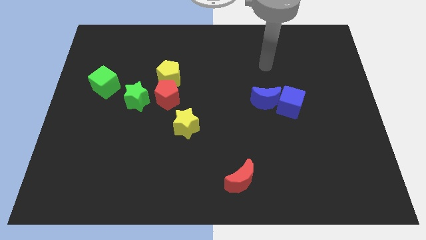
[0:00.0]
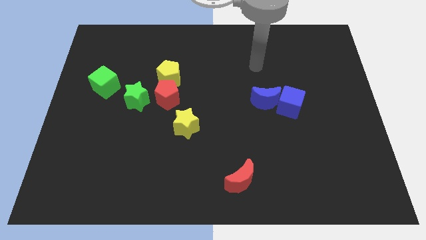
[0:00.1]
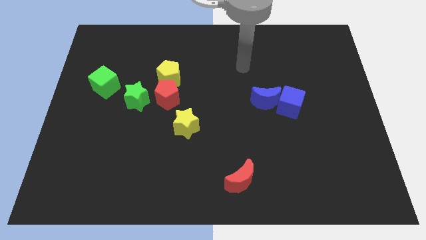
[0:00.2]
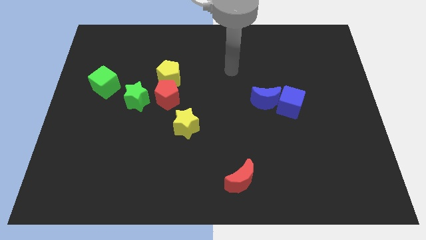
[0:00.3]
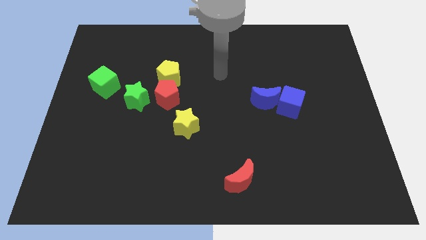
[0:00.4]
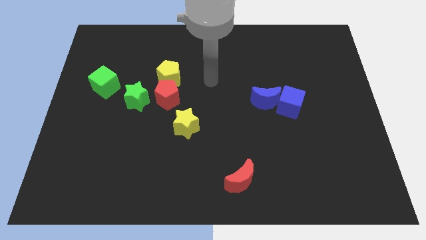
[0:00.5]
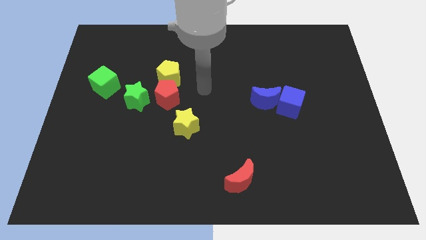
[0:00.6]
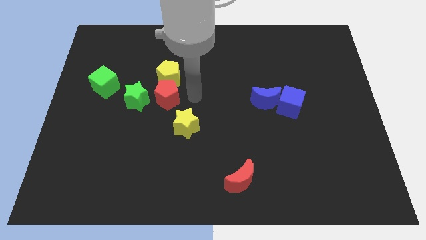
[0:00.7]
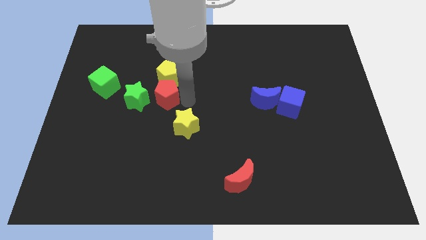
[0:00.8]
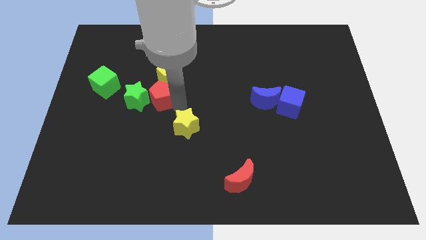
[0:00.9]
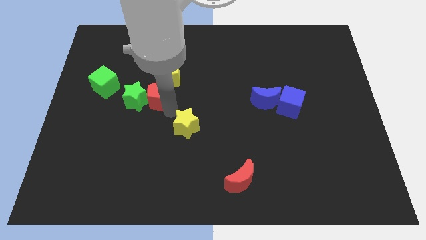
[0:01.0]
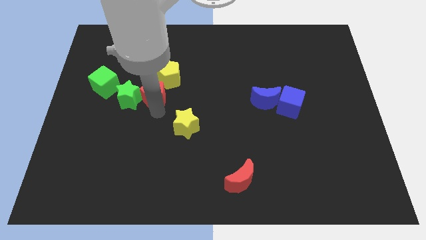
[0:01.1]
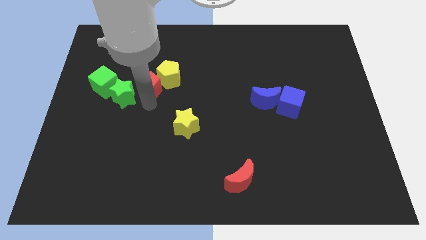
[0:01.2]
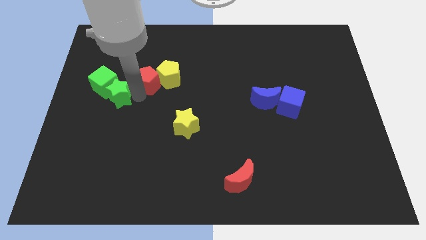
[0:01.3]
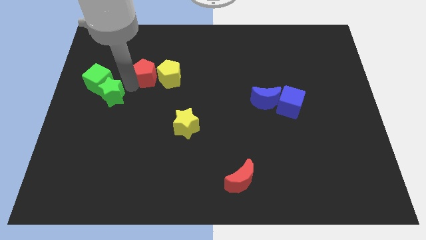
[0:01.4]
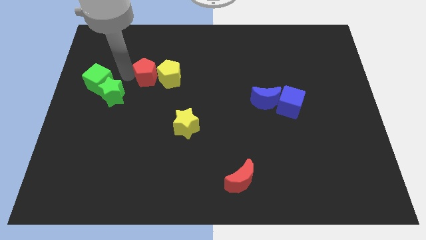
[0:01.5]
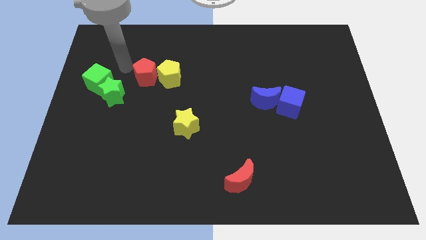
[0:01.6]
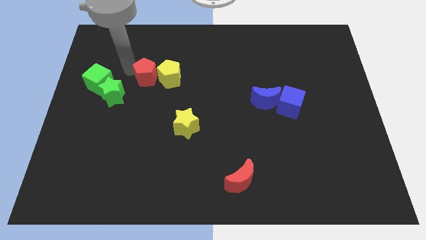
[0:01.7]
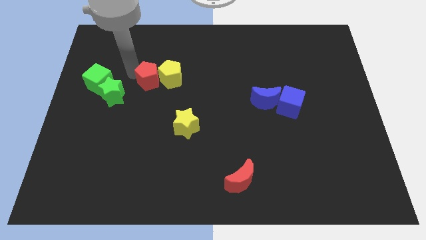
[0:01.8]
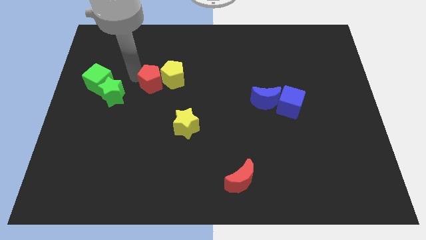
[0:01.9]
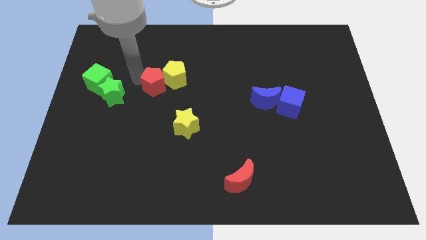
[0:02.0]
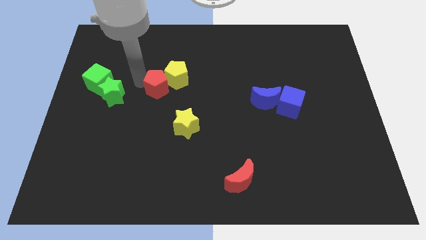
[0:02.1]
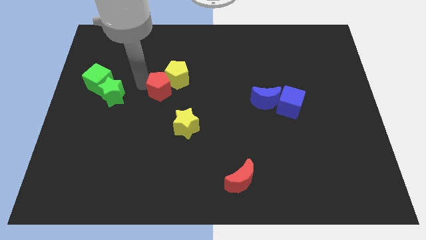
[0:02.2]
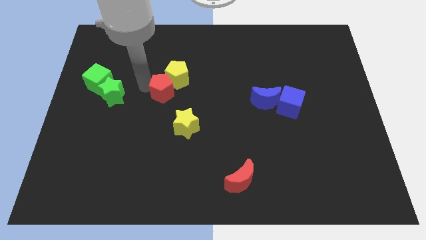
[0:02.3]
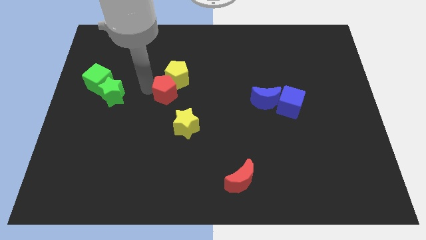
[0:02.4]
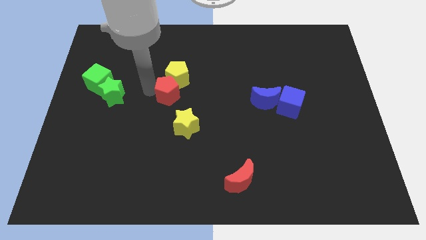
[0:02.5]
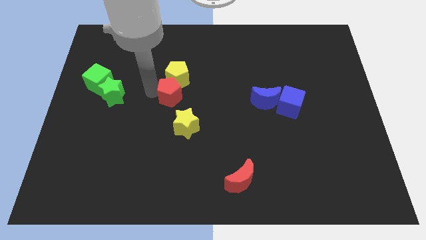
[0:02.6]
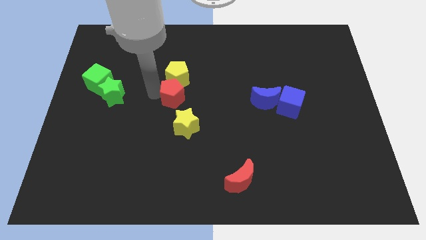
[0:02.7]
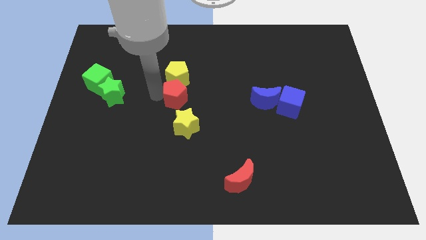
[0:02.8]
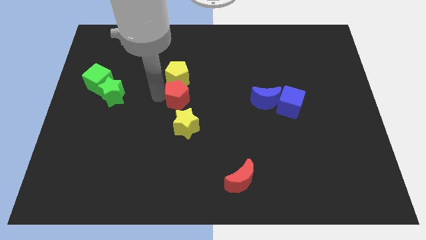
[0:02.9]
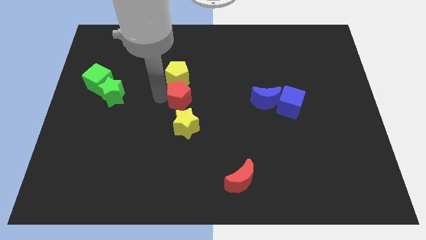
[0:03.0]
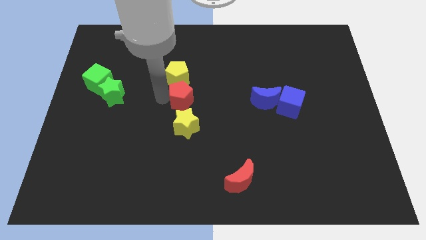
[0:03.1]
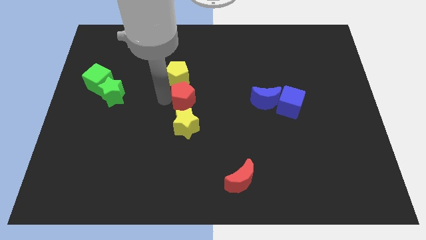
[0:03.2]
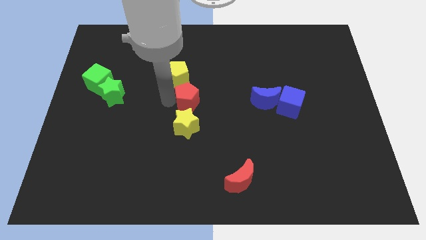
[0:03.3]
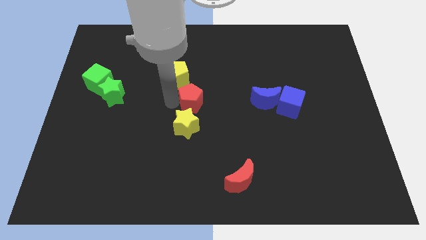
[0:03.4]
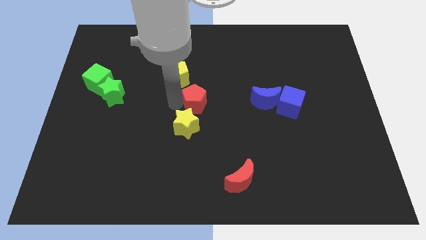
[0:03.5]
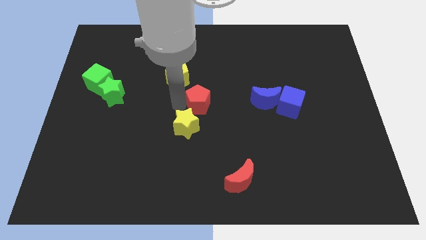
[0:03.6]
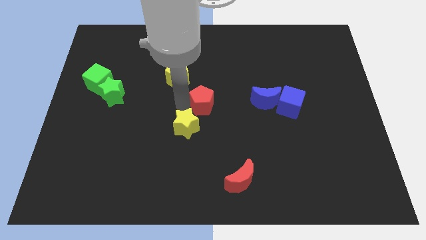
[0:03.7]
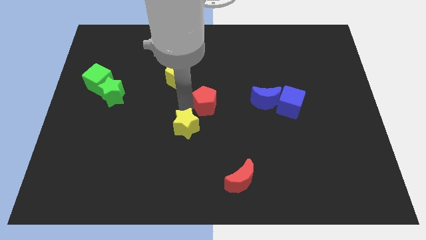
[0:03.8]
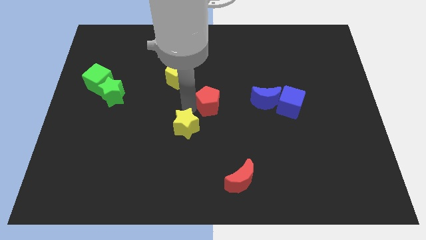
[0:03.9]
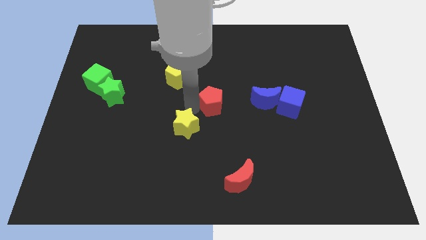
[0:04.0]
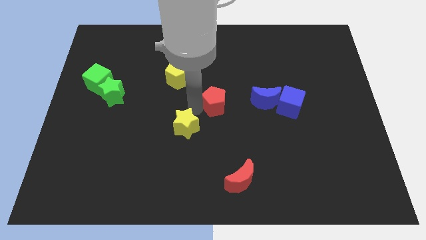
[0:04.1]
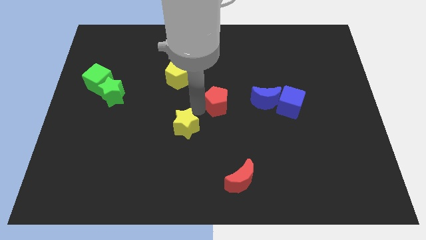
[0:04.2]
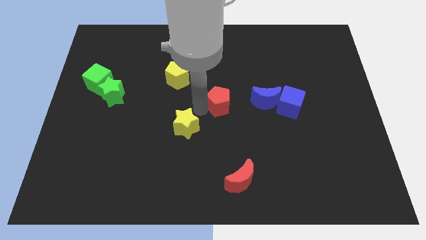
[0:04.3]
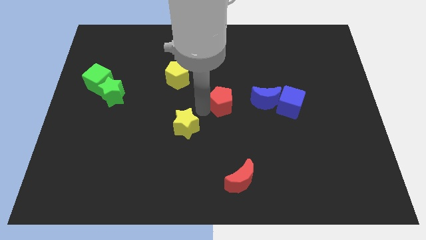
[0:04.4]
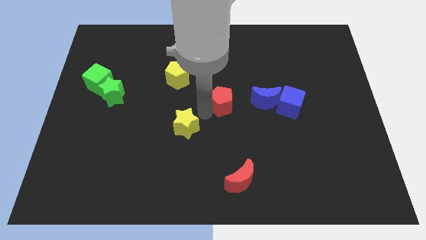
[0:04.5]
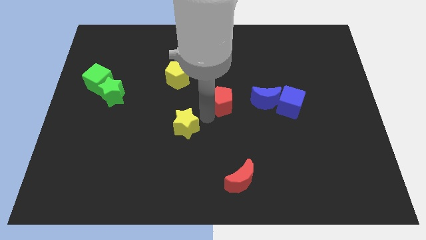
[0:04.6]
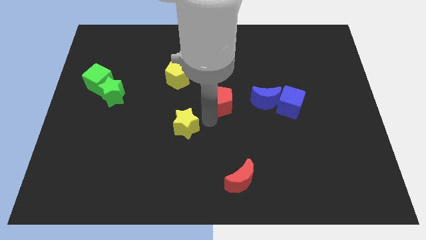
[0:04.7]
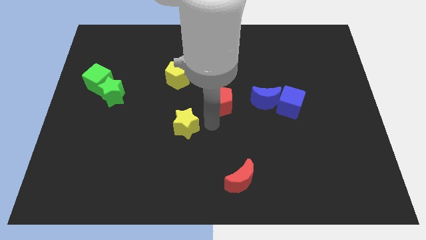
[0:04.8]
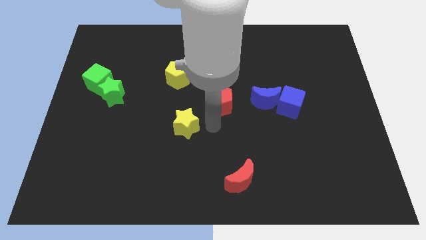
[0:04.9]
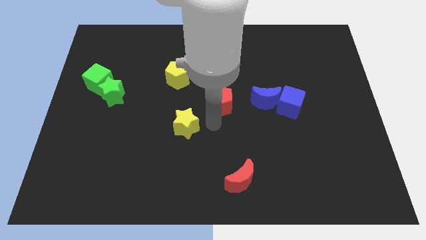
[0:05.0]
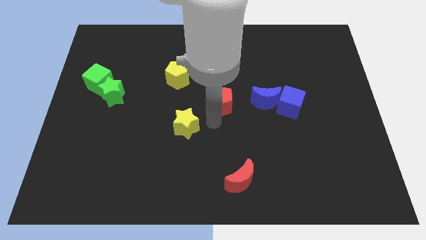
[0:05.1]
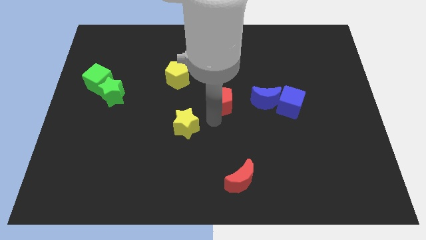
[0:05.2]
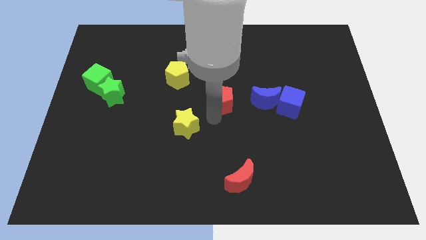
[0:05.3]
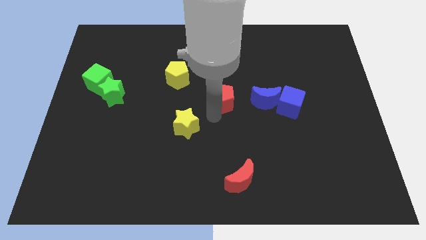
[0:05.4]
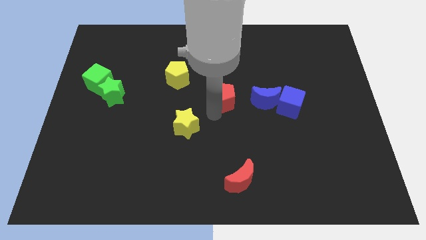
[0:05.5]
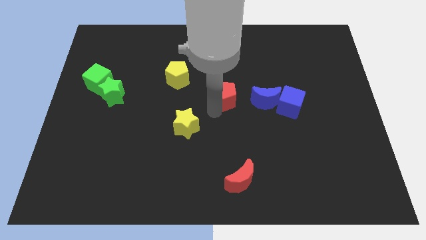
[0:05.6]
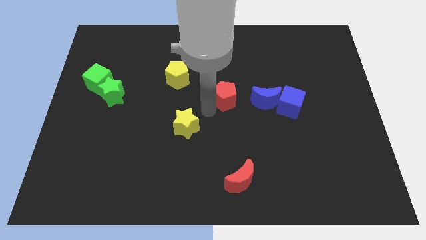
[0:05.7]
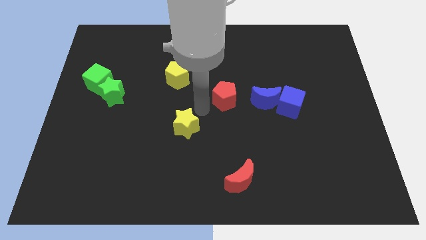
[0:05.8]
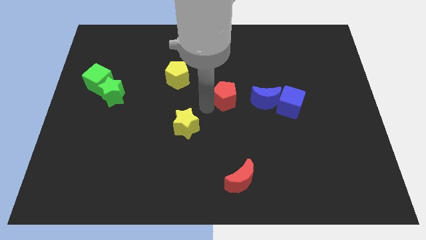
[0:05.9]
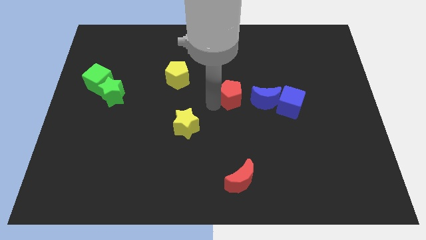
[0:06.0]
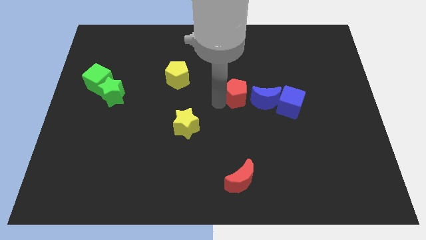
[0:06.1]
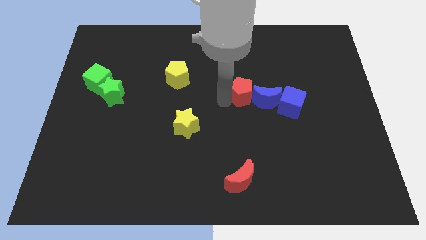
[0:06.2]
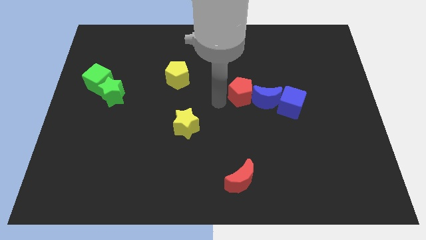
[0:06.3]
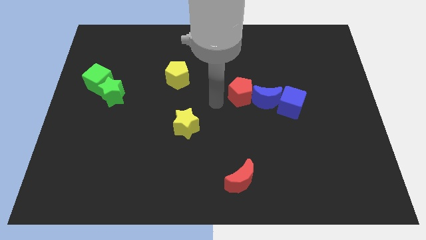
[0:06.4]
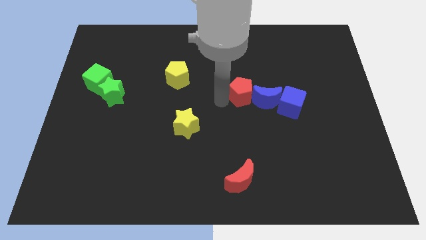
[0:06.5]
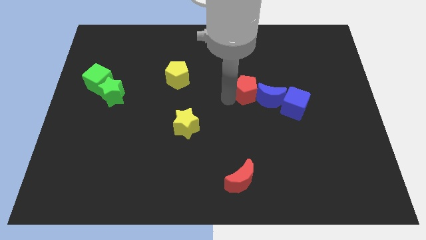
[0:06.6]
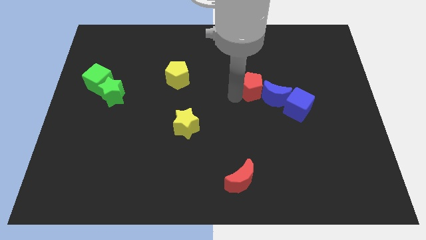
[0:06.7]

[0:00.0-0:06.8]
move the red pentagon to the right

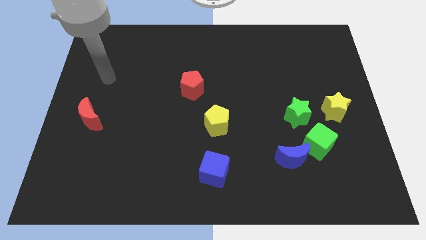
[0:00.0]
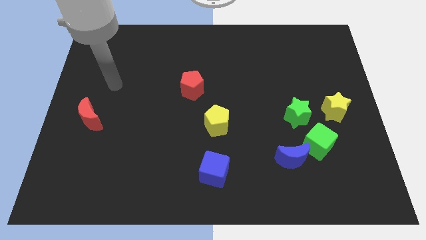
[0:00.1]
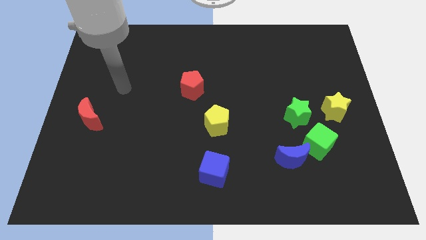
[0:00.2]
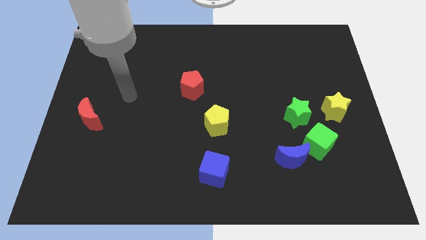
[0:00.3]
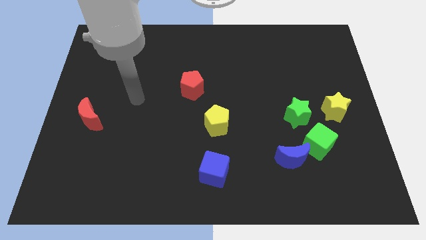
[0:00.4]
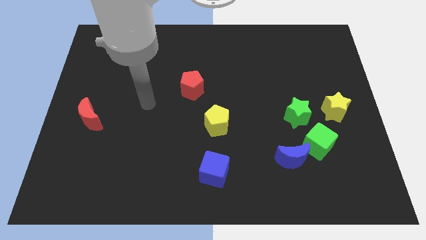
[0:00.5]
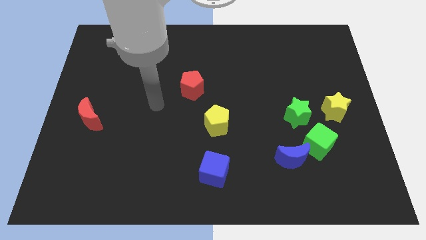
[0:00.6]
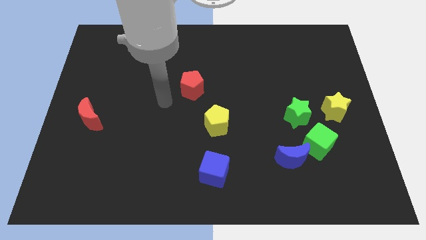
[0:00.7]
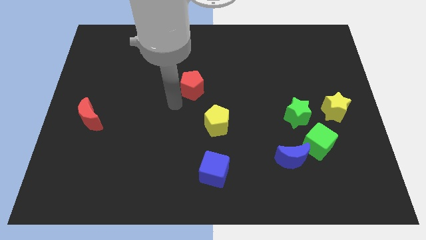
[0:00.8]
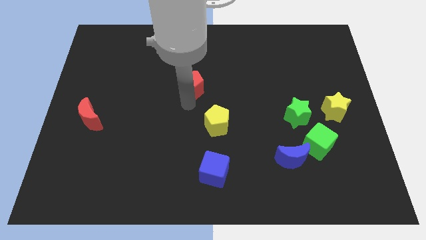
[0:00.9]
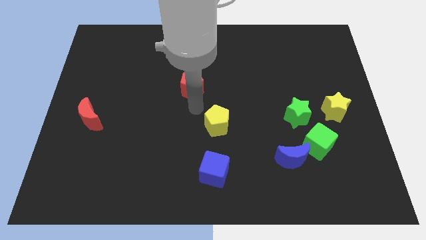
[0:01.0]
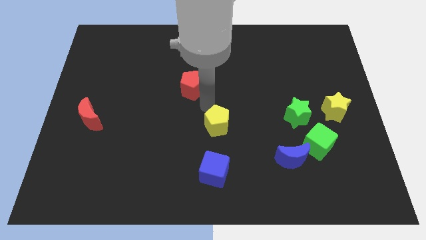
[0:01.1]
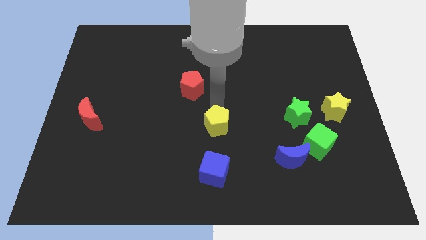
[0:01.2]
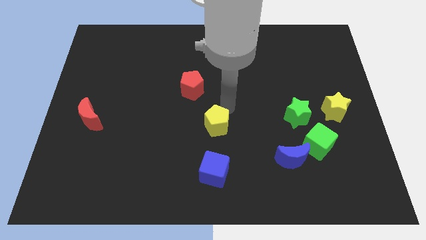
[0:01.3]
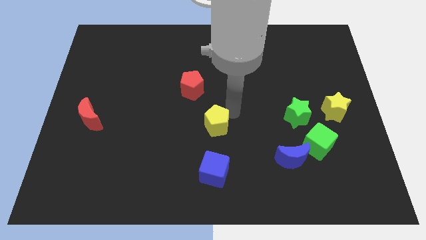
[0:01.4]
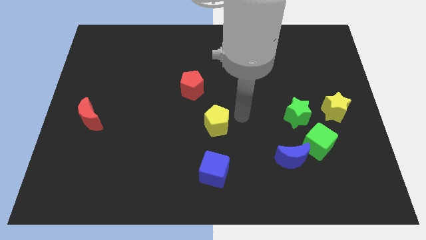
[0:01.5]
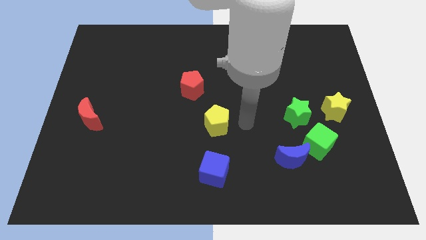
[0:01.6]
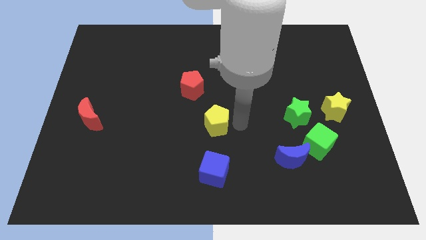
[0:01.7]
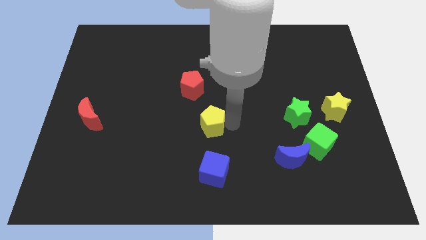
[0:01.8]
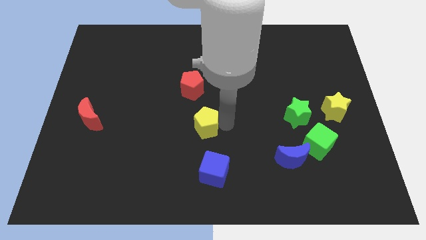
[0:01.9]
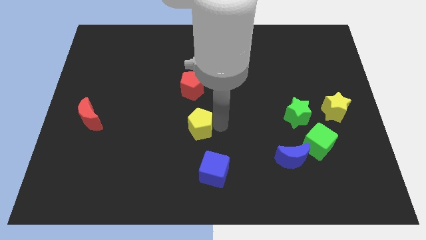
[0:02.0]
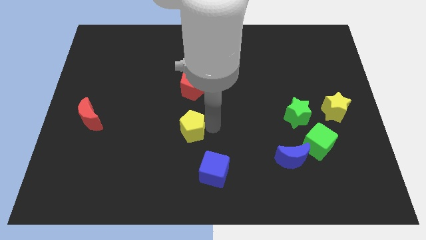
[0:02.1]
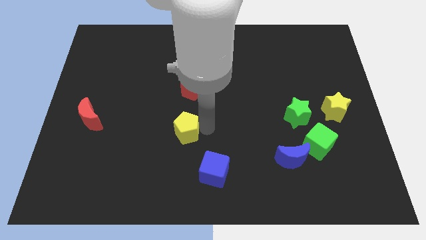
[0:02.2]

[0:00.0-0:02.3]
slide the yellow pentagon a bit to the left
